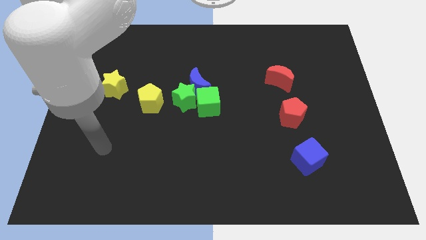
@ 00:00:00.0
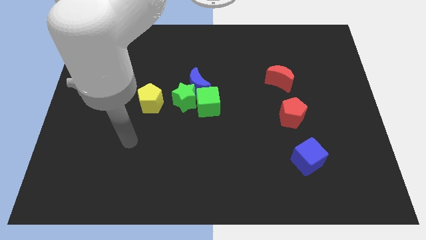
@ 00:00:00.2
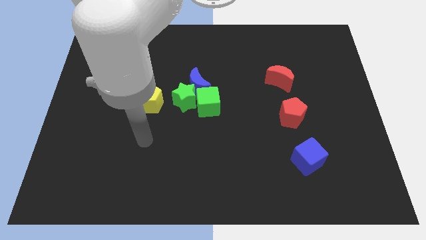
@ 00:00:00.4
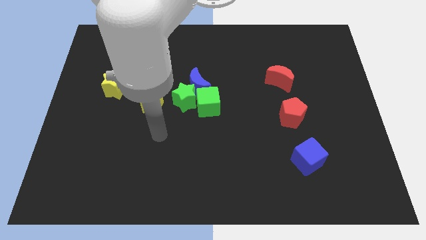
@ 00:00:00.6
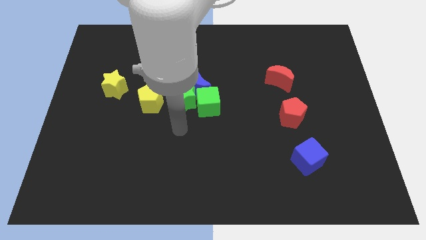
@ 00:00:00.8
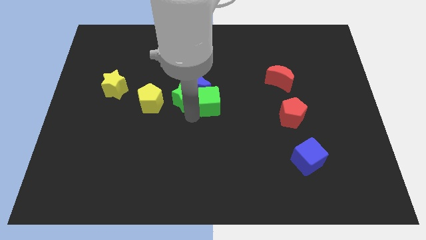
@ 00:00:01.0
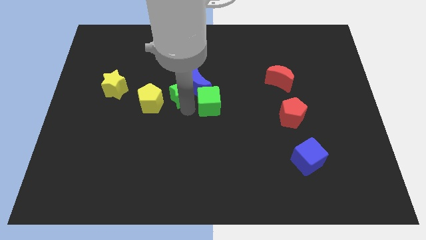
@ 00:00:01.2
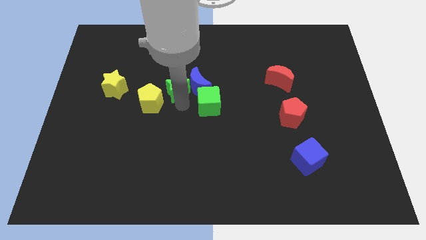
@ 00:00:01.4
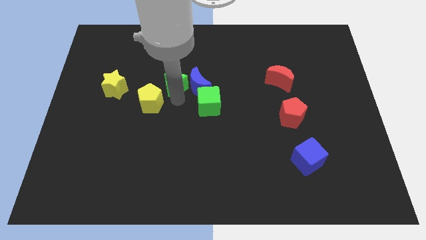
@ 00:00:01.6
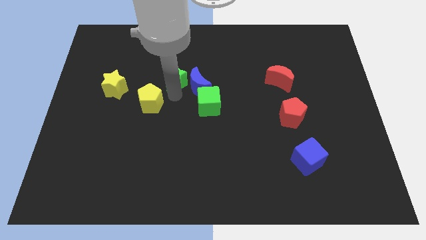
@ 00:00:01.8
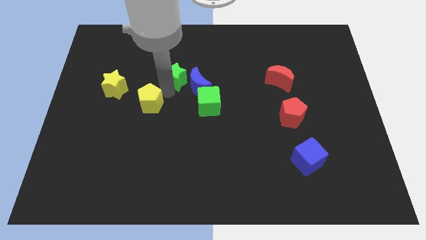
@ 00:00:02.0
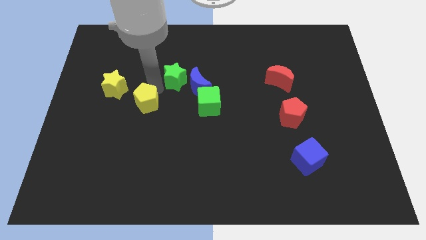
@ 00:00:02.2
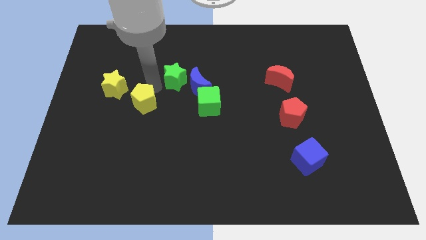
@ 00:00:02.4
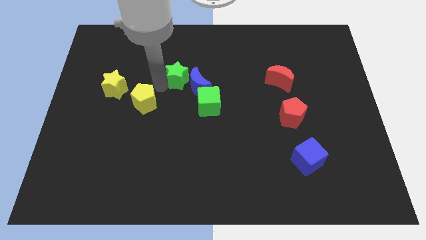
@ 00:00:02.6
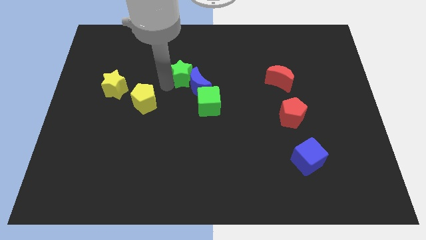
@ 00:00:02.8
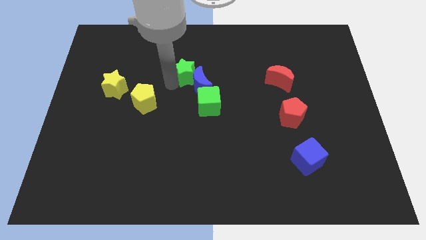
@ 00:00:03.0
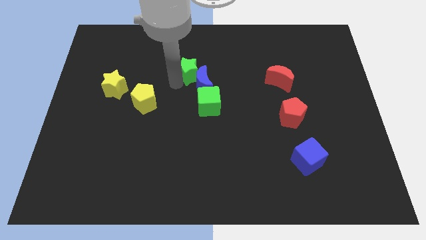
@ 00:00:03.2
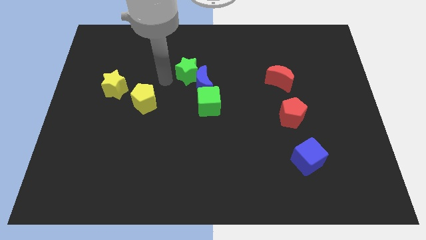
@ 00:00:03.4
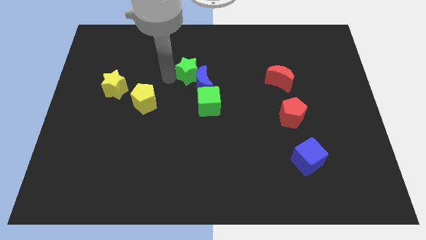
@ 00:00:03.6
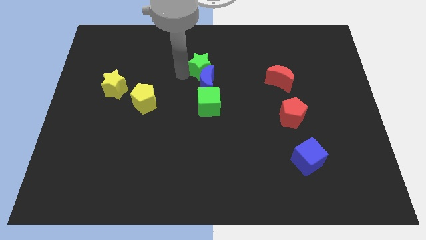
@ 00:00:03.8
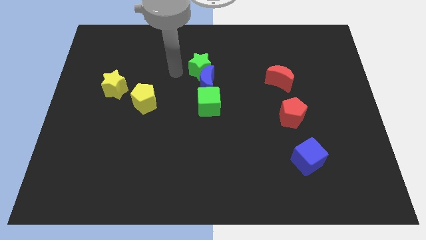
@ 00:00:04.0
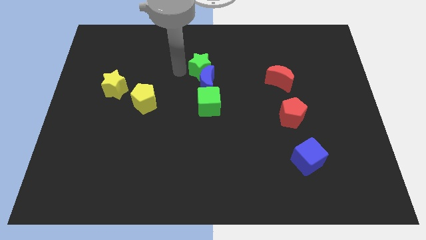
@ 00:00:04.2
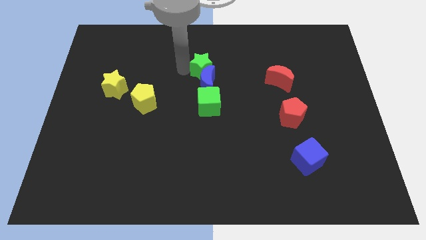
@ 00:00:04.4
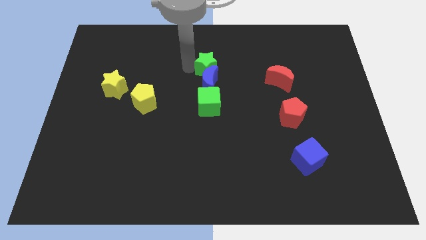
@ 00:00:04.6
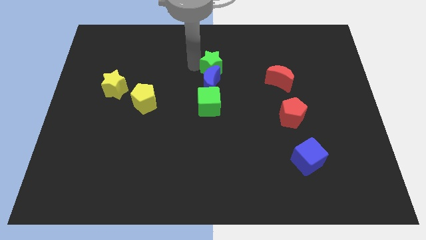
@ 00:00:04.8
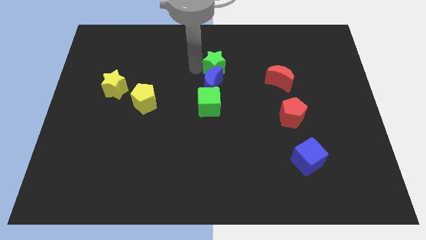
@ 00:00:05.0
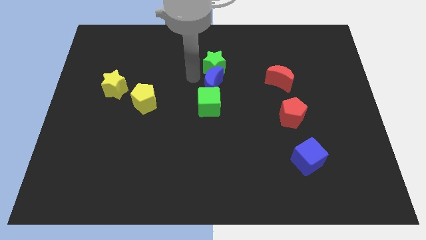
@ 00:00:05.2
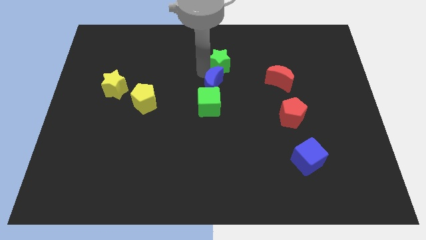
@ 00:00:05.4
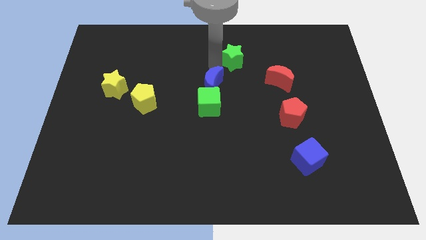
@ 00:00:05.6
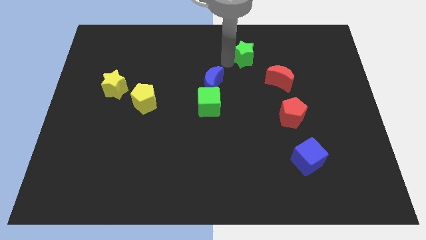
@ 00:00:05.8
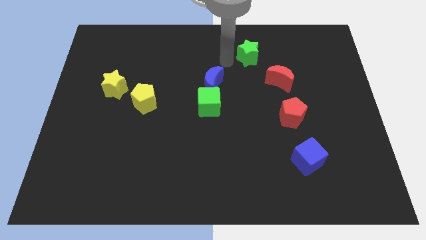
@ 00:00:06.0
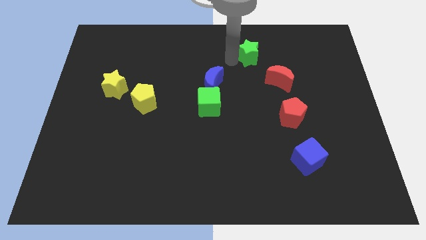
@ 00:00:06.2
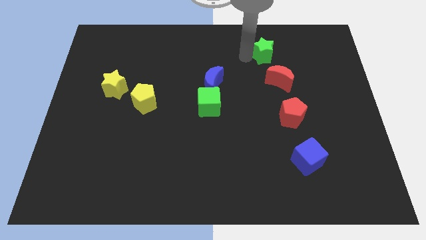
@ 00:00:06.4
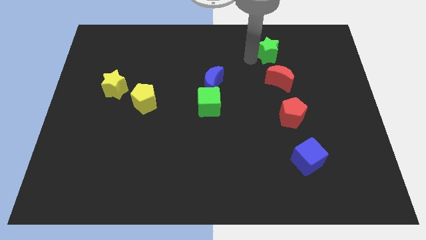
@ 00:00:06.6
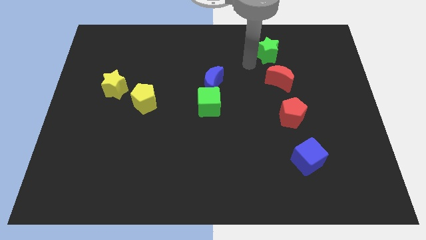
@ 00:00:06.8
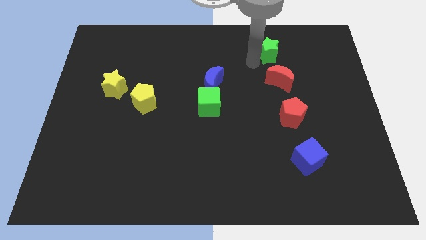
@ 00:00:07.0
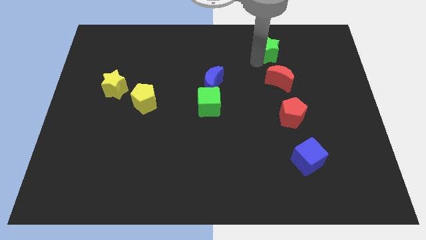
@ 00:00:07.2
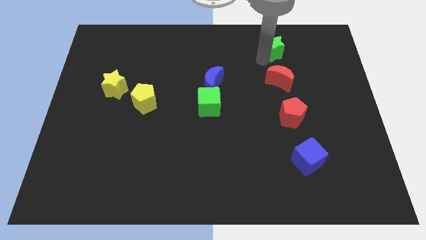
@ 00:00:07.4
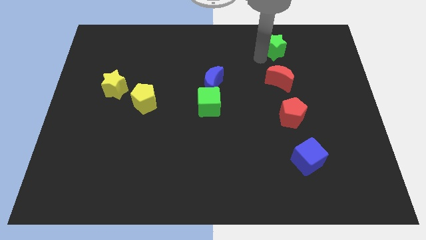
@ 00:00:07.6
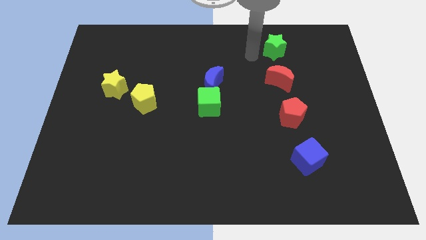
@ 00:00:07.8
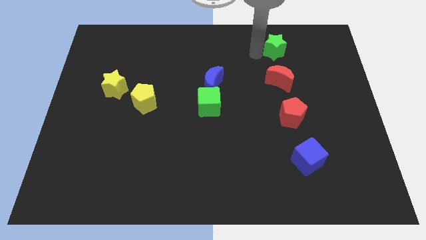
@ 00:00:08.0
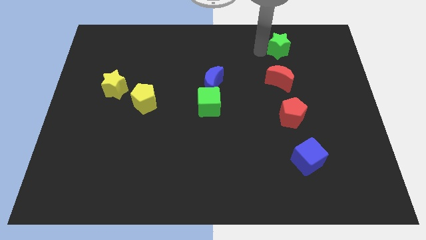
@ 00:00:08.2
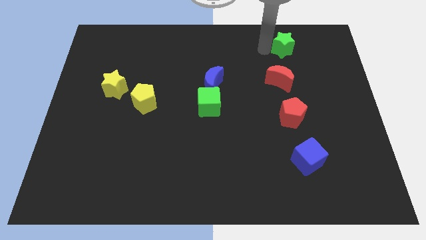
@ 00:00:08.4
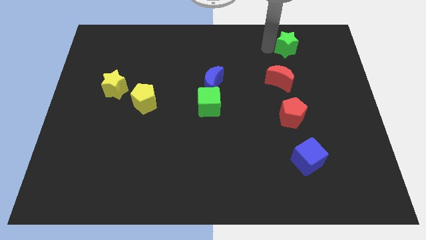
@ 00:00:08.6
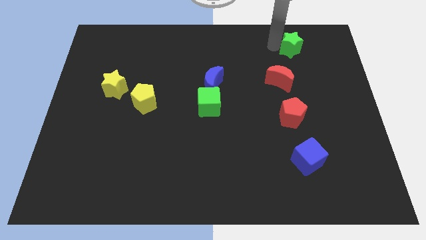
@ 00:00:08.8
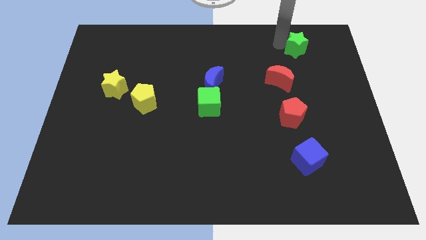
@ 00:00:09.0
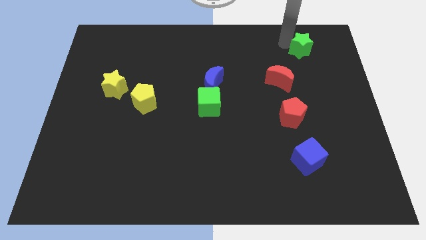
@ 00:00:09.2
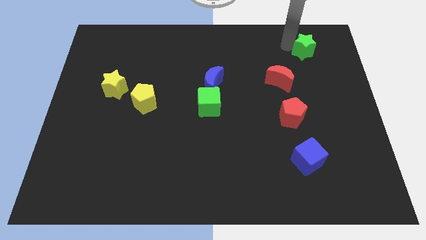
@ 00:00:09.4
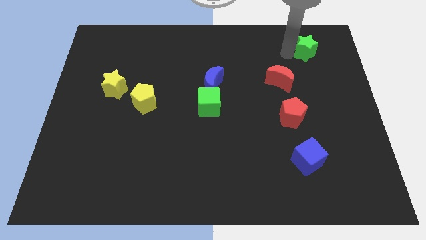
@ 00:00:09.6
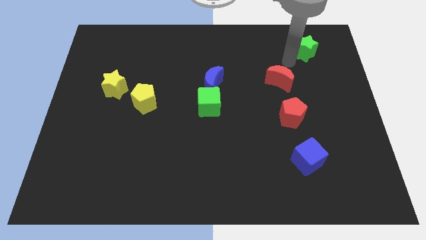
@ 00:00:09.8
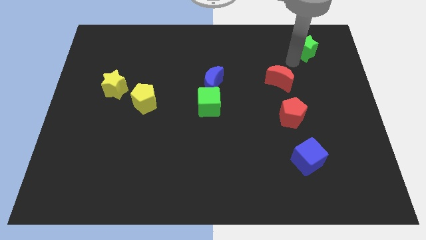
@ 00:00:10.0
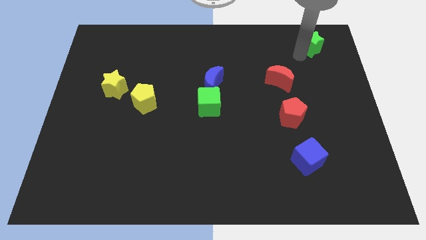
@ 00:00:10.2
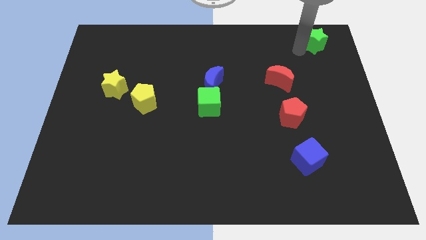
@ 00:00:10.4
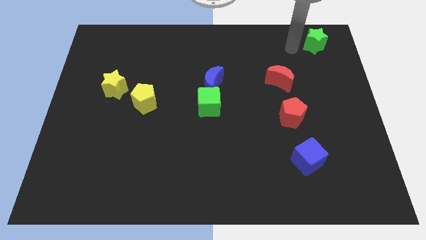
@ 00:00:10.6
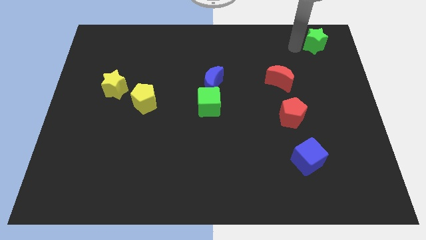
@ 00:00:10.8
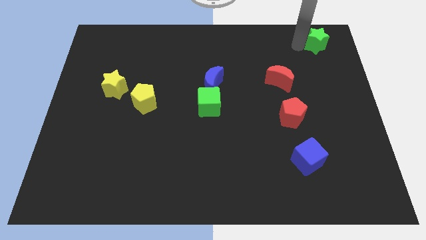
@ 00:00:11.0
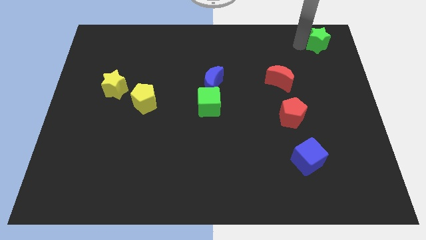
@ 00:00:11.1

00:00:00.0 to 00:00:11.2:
move the green star to the top right
